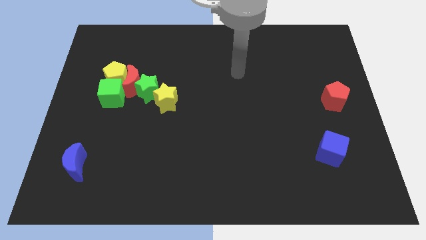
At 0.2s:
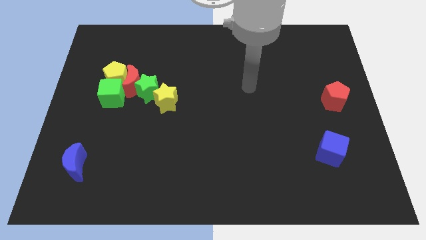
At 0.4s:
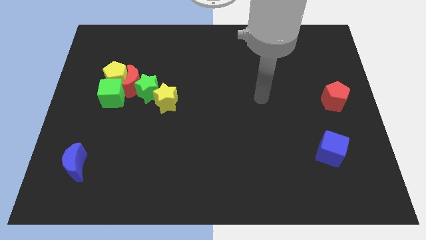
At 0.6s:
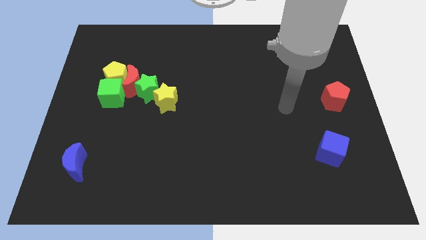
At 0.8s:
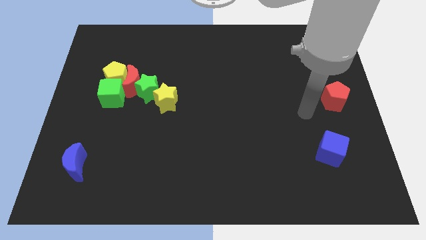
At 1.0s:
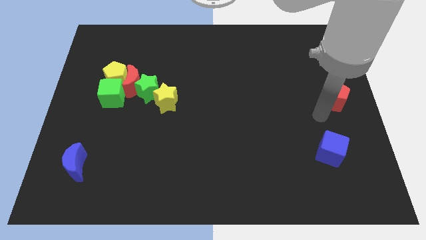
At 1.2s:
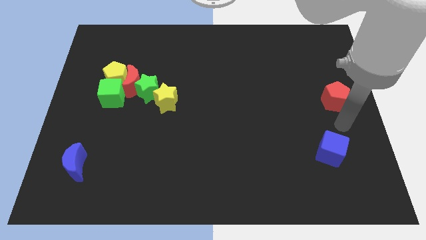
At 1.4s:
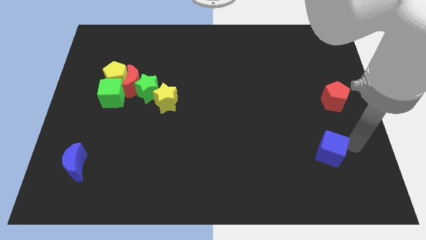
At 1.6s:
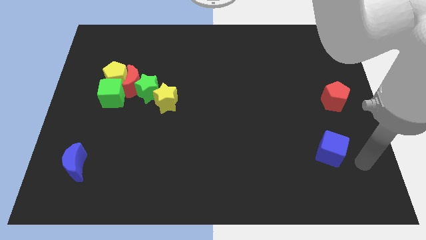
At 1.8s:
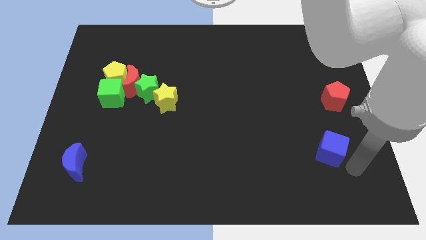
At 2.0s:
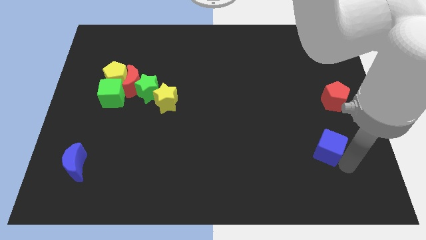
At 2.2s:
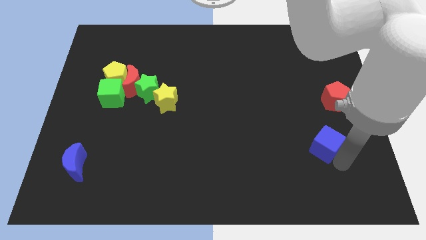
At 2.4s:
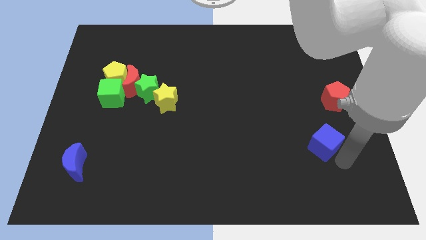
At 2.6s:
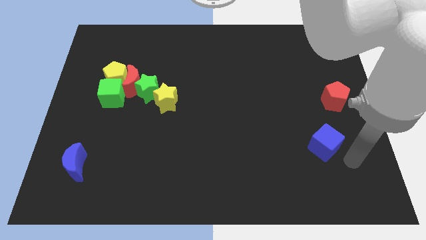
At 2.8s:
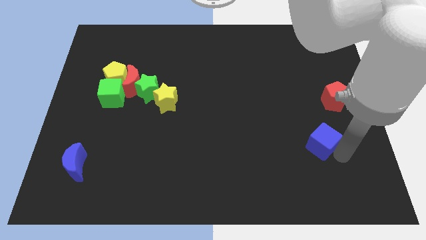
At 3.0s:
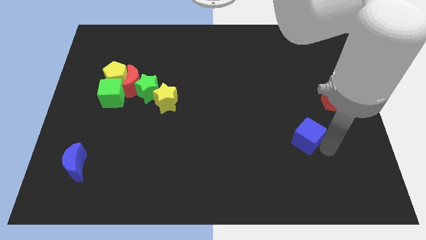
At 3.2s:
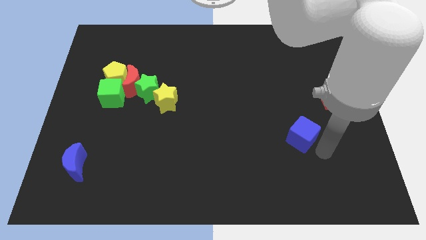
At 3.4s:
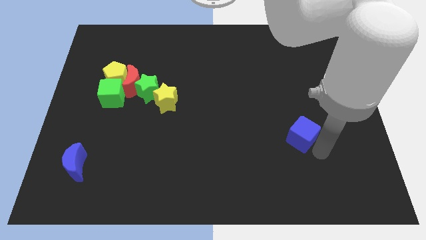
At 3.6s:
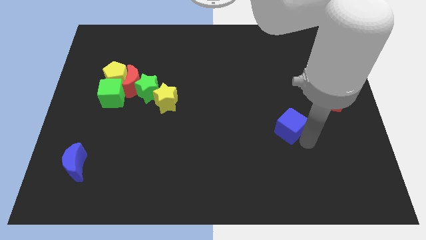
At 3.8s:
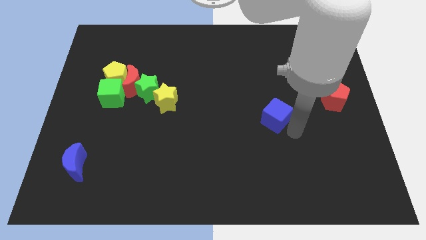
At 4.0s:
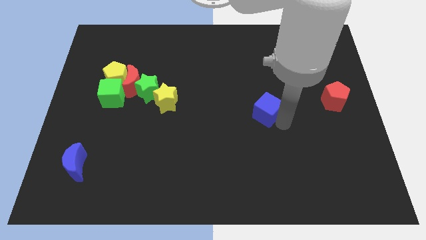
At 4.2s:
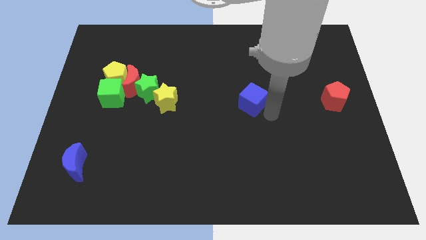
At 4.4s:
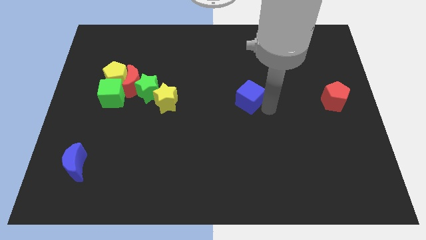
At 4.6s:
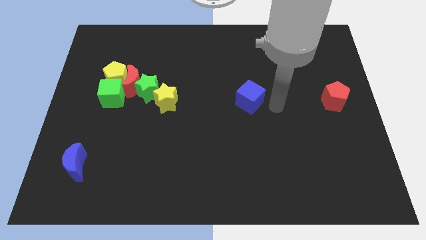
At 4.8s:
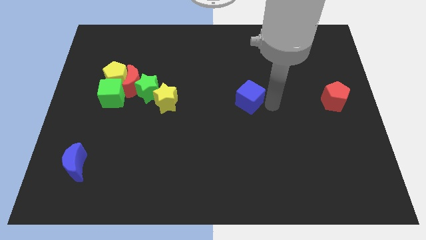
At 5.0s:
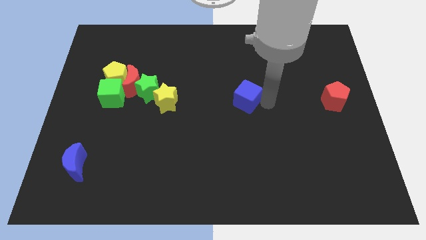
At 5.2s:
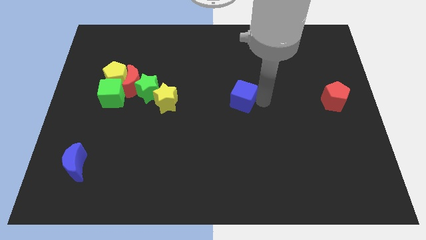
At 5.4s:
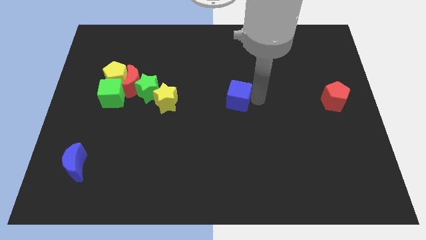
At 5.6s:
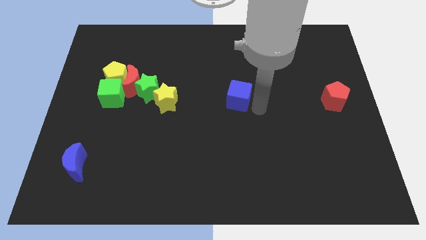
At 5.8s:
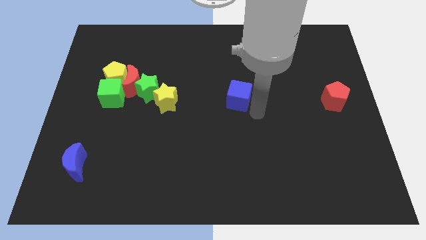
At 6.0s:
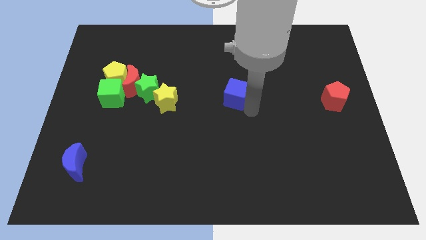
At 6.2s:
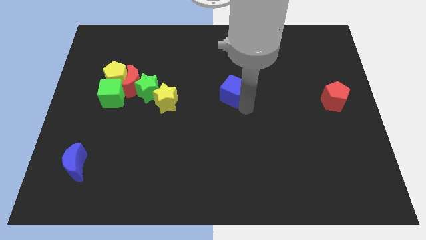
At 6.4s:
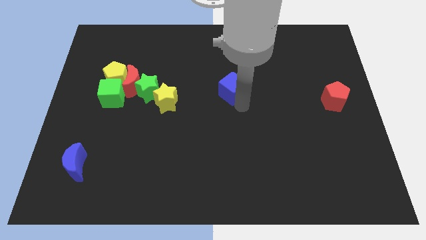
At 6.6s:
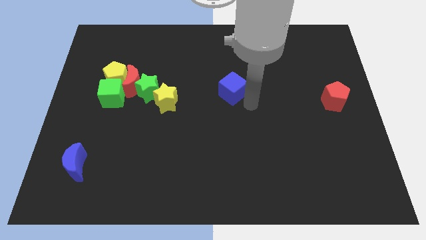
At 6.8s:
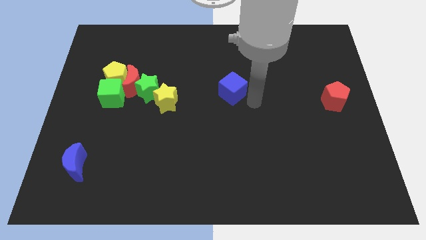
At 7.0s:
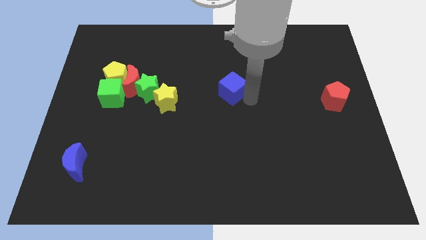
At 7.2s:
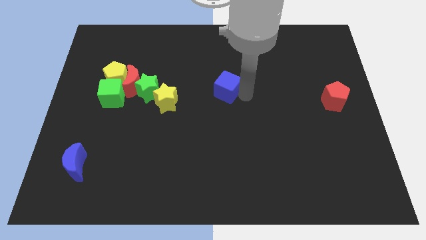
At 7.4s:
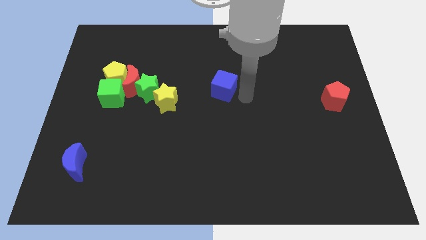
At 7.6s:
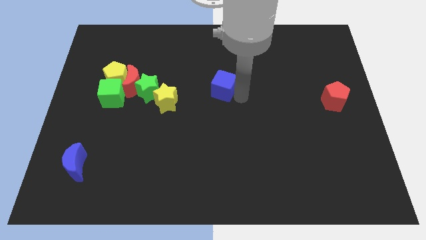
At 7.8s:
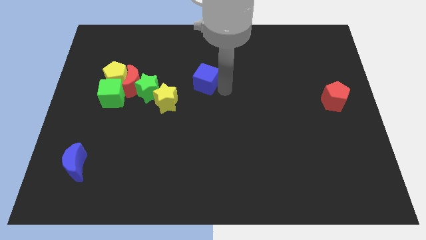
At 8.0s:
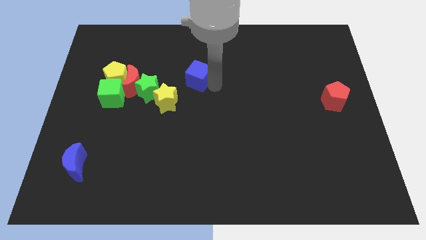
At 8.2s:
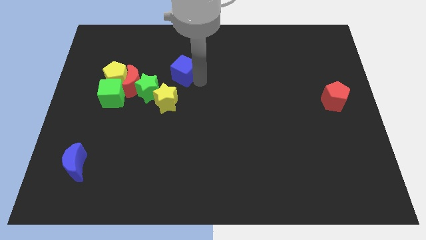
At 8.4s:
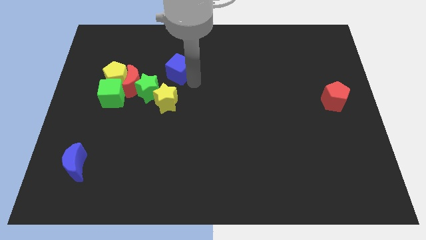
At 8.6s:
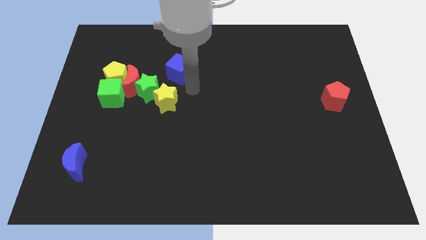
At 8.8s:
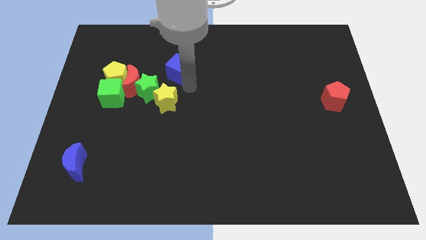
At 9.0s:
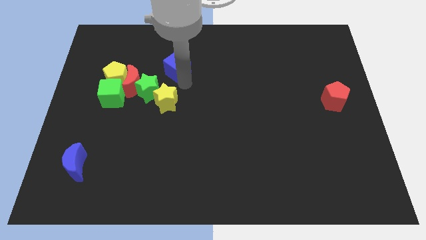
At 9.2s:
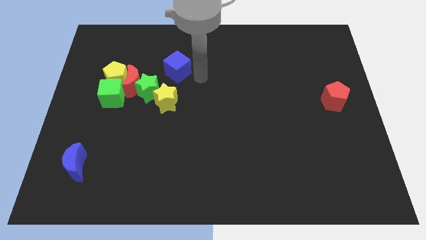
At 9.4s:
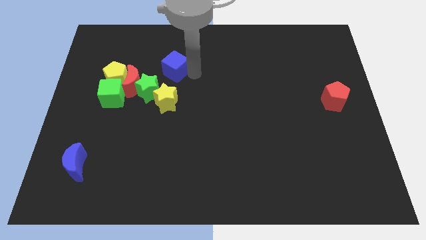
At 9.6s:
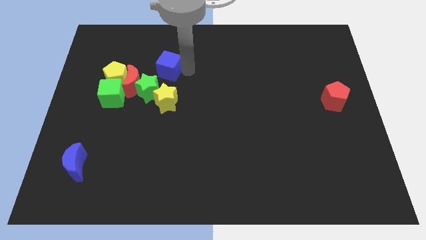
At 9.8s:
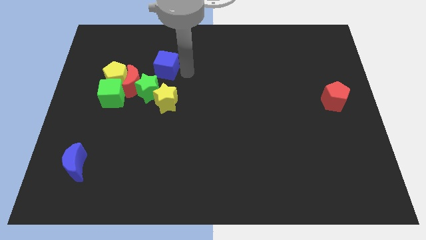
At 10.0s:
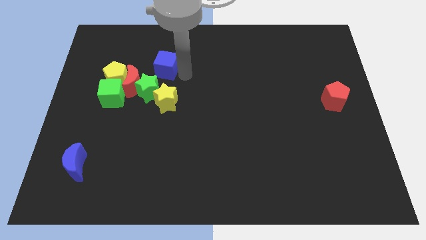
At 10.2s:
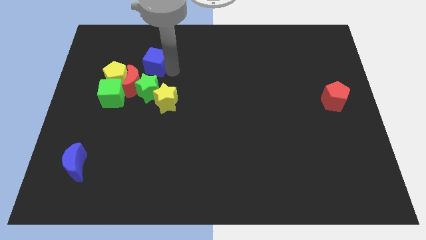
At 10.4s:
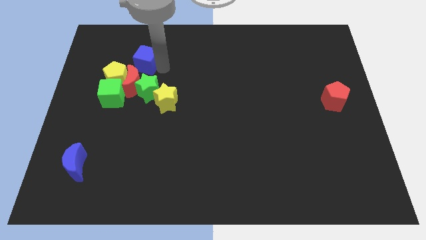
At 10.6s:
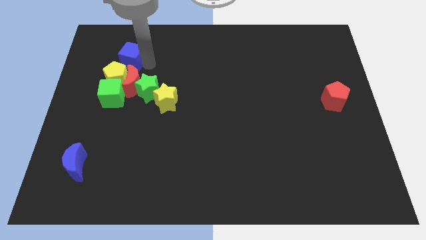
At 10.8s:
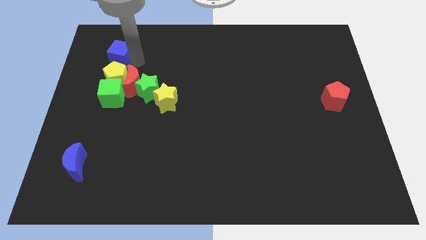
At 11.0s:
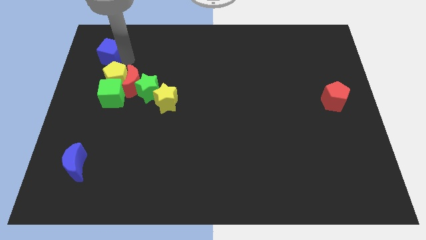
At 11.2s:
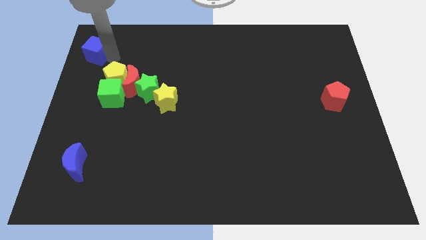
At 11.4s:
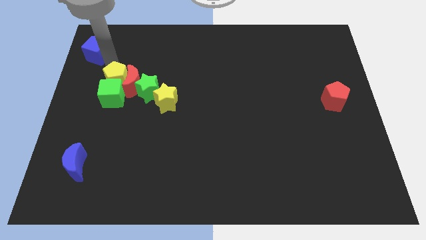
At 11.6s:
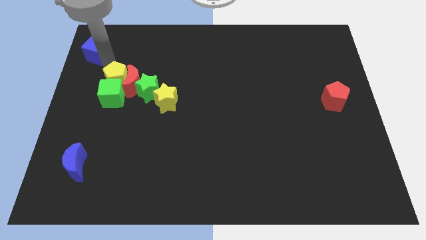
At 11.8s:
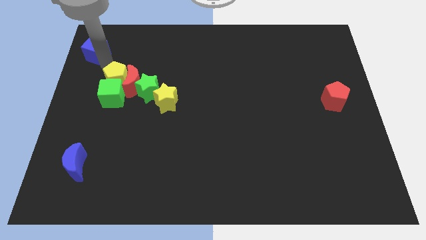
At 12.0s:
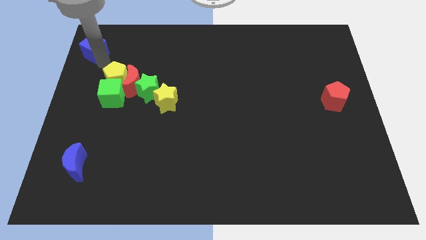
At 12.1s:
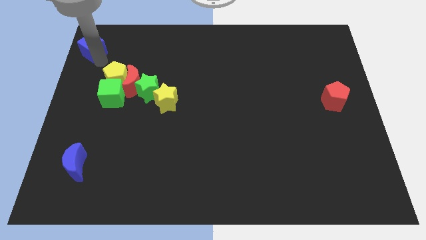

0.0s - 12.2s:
put the blue cube to the upper left corner
